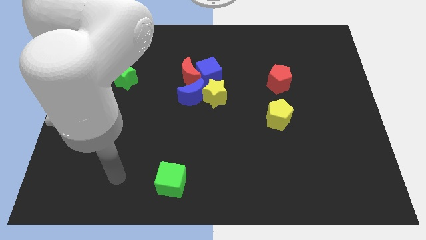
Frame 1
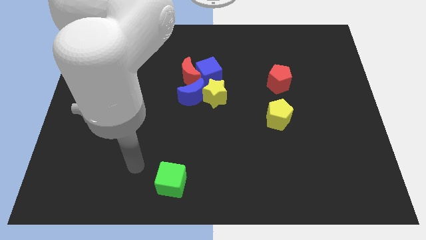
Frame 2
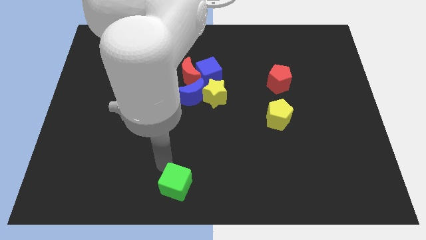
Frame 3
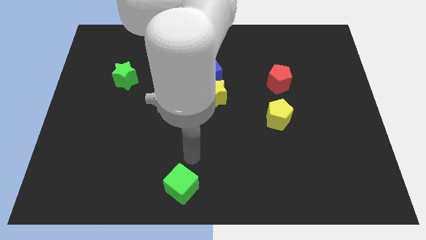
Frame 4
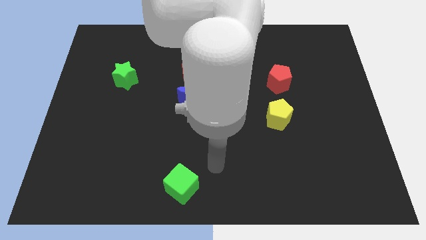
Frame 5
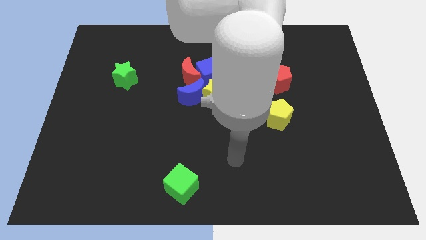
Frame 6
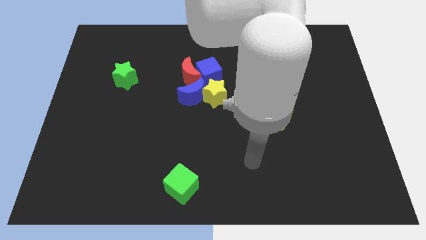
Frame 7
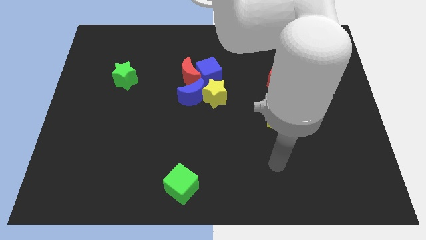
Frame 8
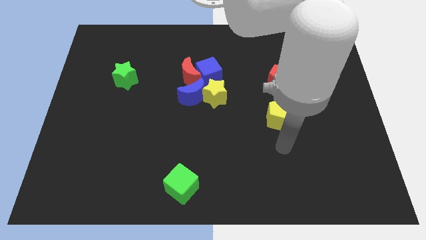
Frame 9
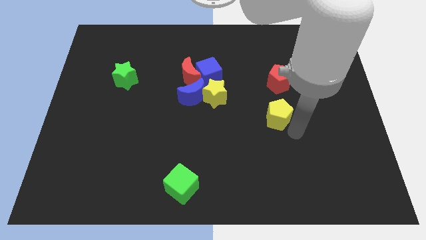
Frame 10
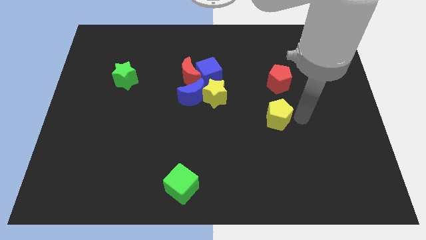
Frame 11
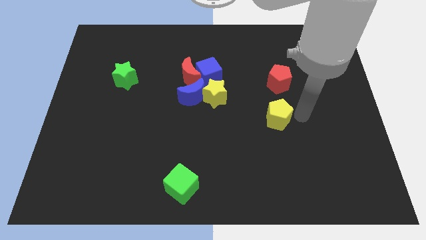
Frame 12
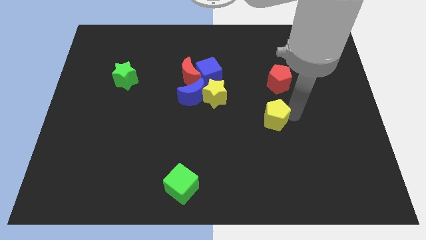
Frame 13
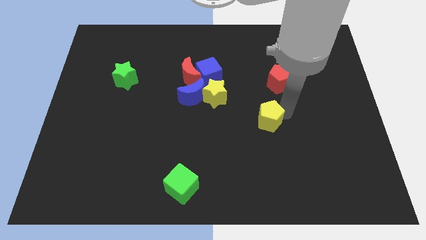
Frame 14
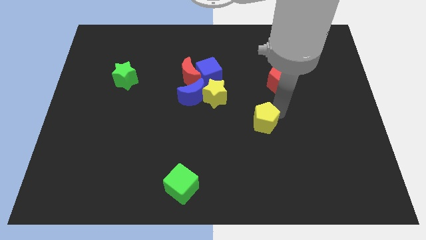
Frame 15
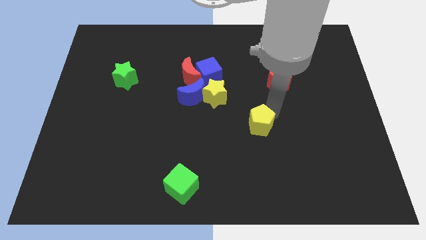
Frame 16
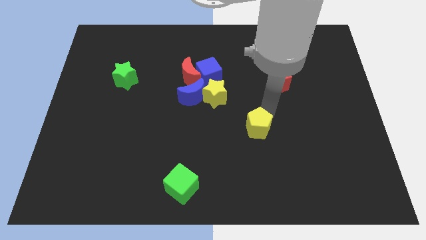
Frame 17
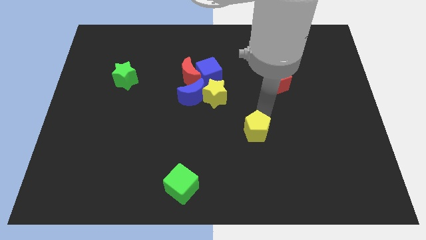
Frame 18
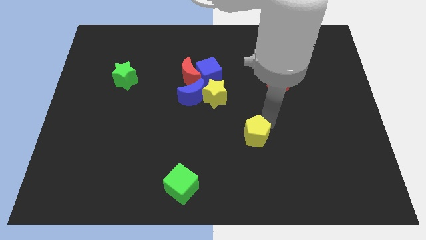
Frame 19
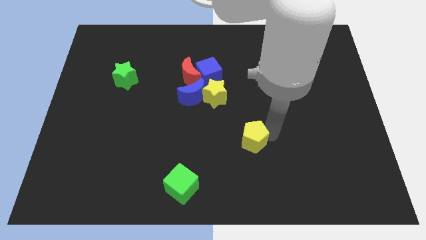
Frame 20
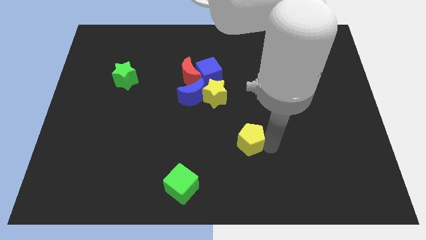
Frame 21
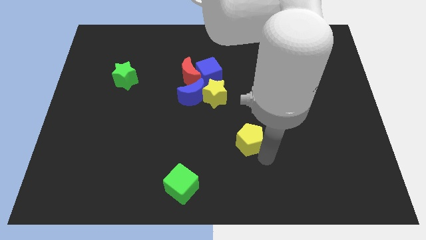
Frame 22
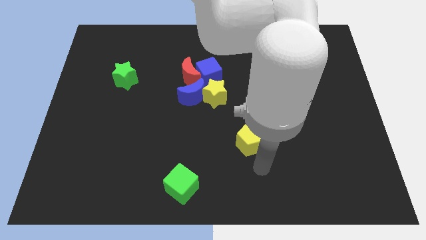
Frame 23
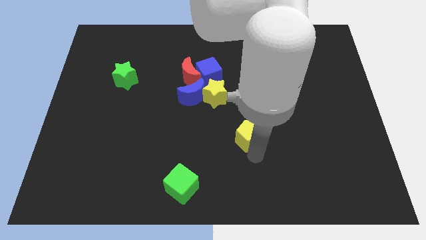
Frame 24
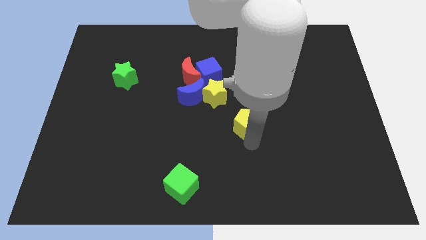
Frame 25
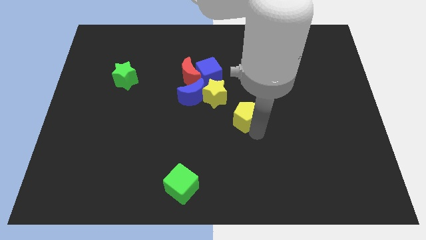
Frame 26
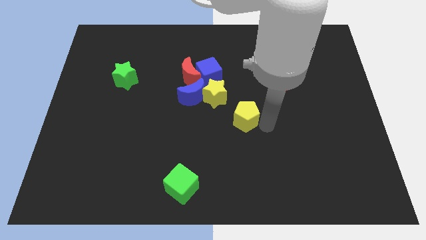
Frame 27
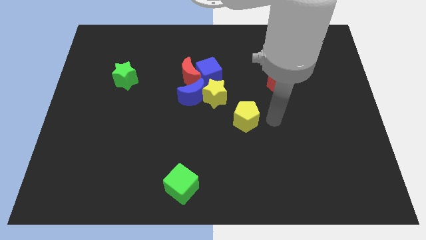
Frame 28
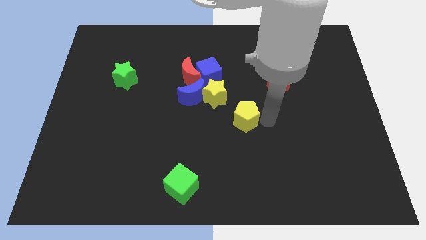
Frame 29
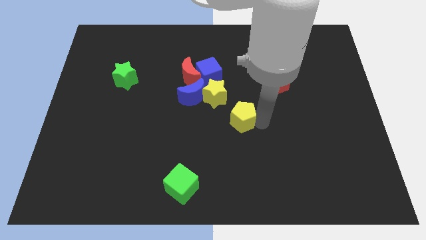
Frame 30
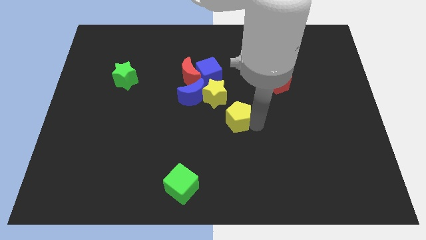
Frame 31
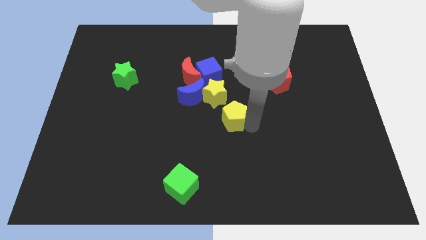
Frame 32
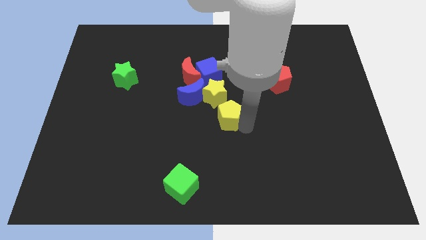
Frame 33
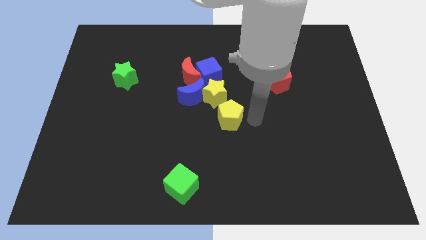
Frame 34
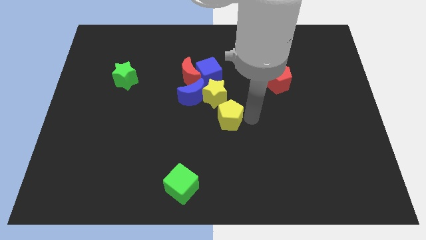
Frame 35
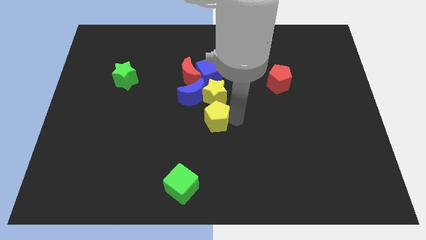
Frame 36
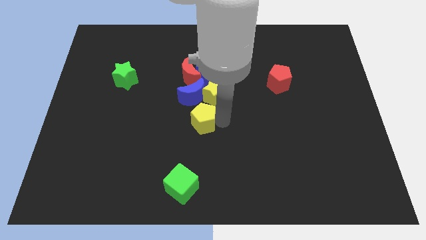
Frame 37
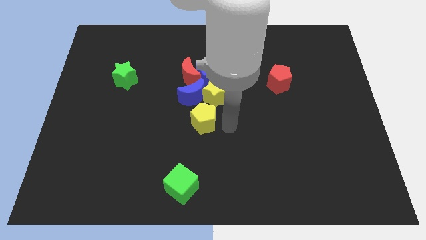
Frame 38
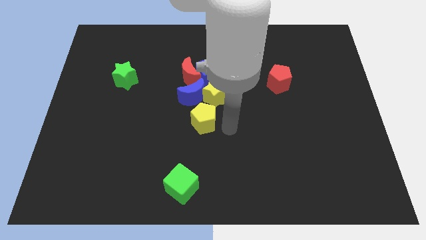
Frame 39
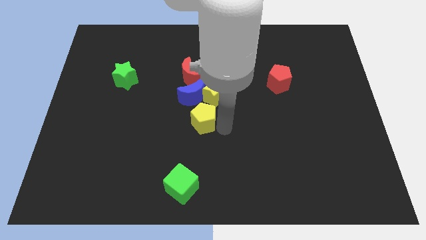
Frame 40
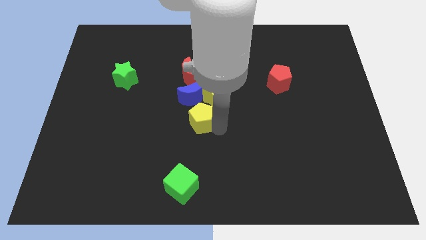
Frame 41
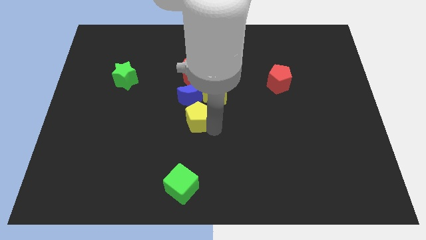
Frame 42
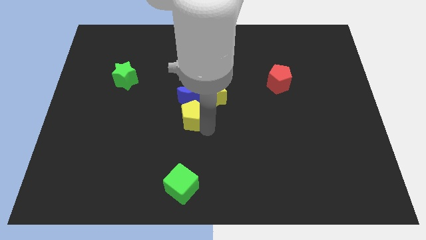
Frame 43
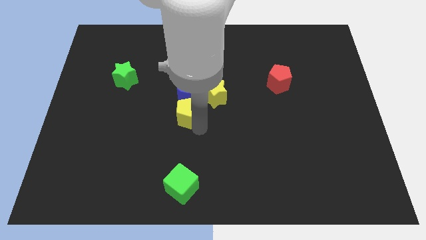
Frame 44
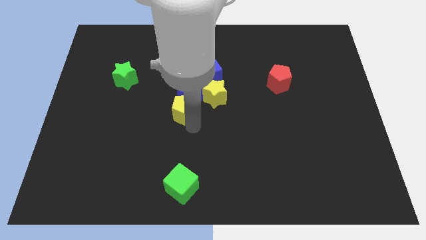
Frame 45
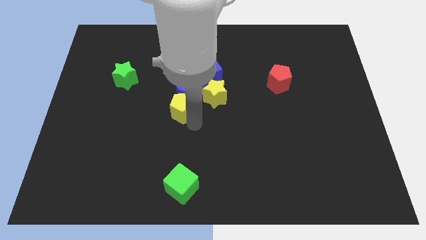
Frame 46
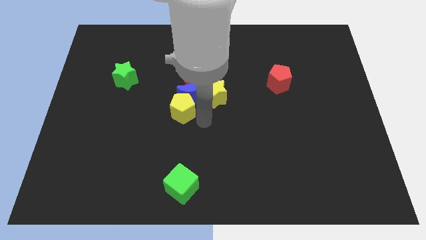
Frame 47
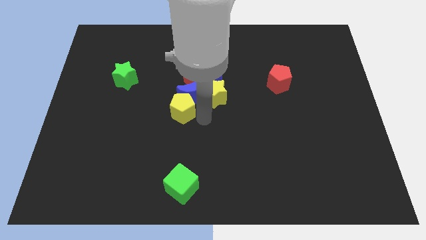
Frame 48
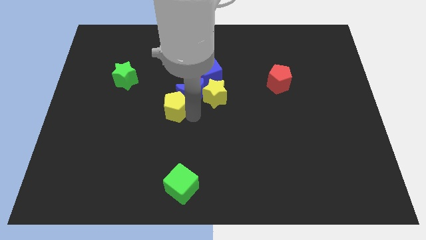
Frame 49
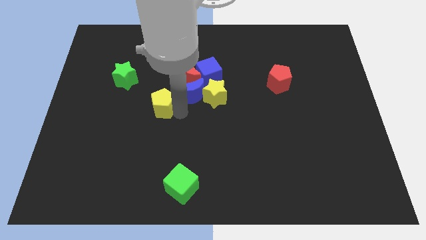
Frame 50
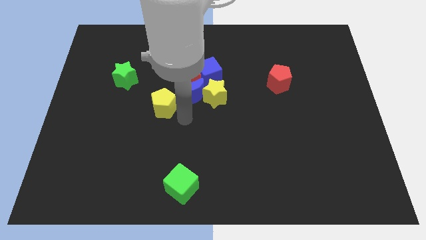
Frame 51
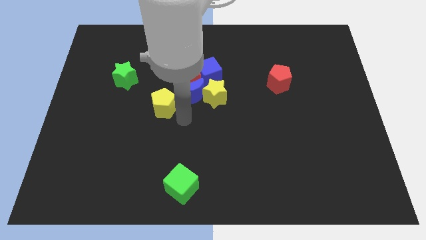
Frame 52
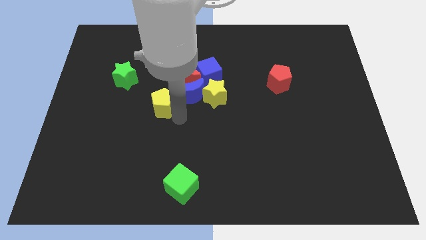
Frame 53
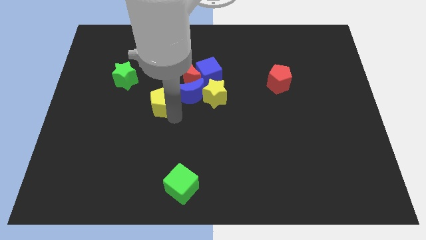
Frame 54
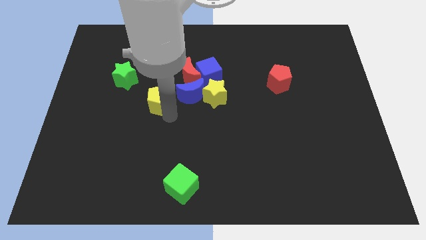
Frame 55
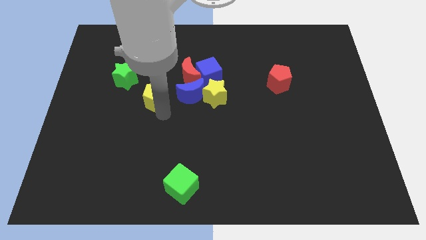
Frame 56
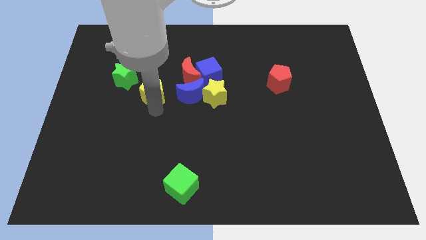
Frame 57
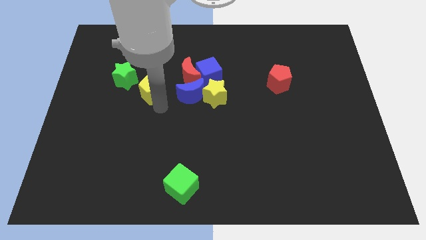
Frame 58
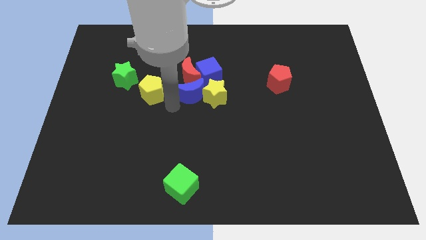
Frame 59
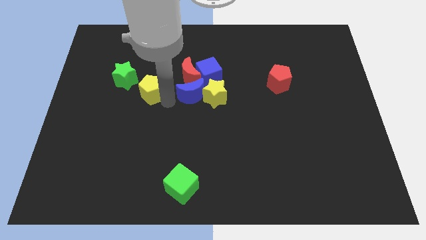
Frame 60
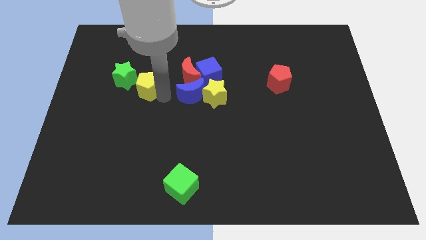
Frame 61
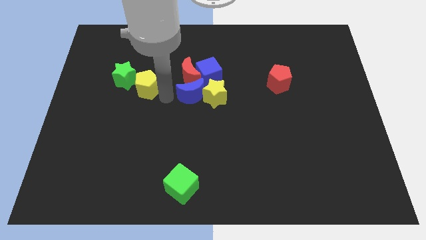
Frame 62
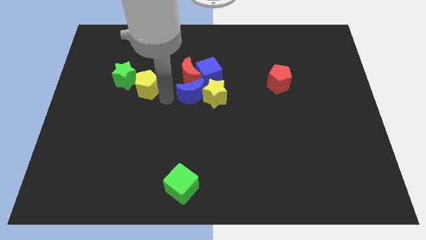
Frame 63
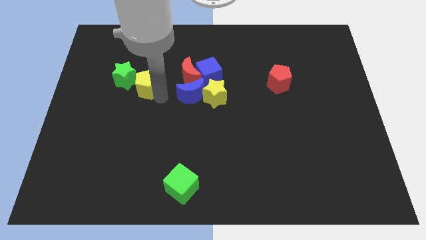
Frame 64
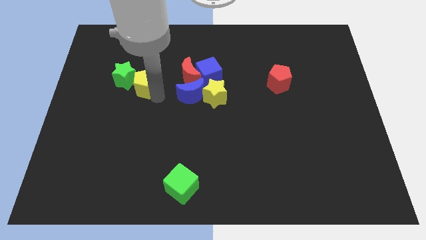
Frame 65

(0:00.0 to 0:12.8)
put the yellow pentagon towards the green star
